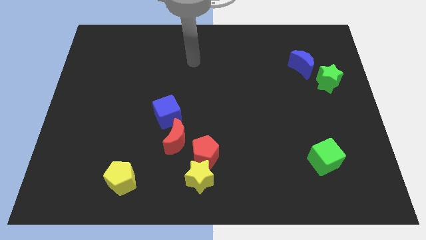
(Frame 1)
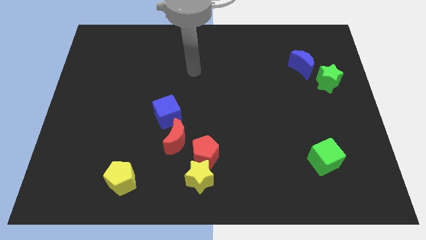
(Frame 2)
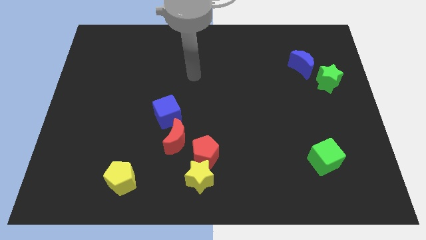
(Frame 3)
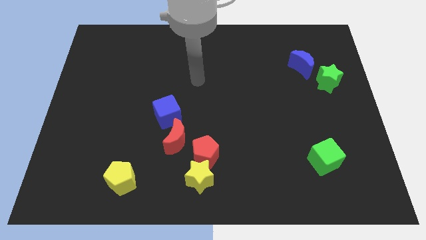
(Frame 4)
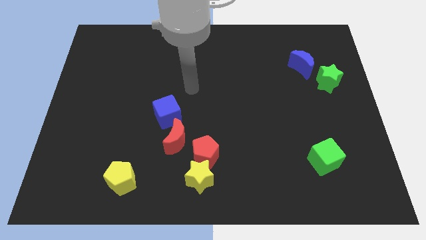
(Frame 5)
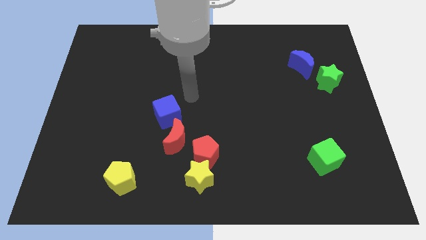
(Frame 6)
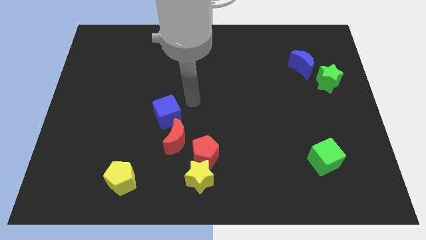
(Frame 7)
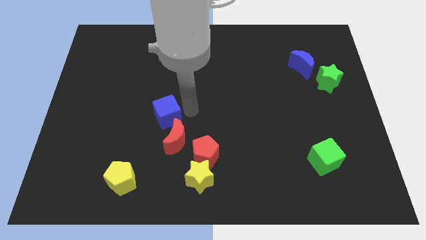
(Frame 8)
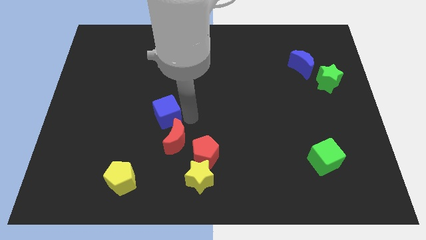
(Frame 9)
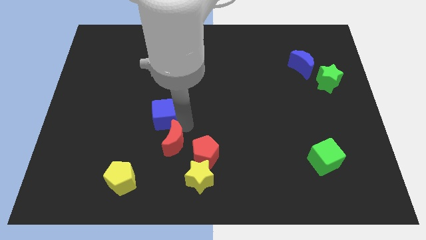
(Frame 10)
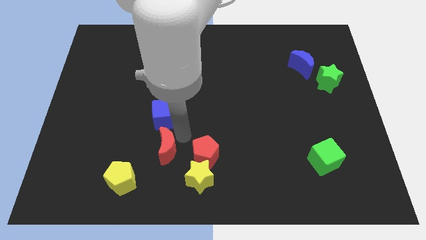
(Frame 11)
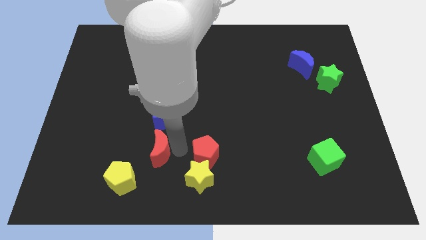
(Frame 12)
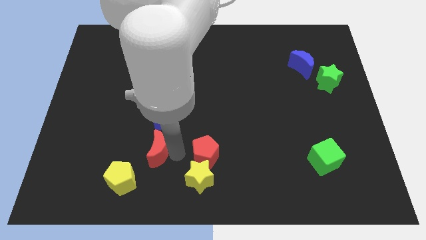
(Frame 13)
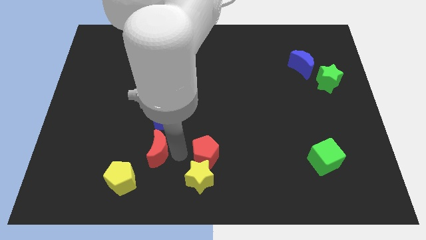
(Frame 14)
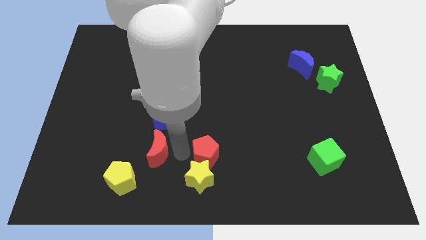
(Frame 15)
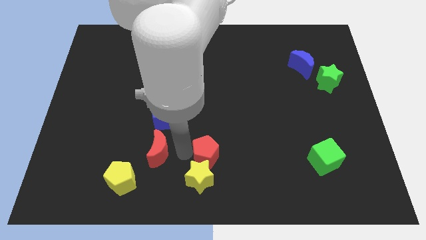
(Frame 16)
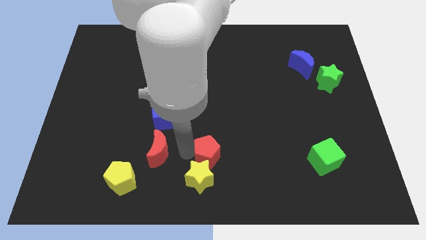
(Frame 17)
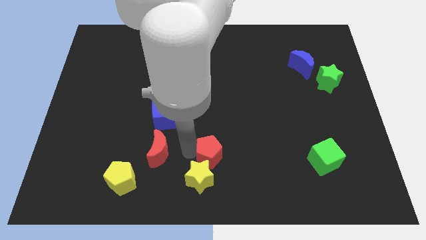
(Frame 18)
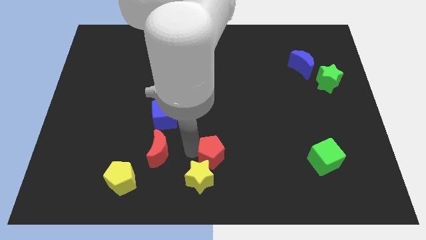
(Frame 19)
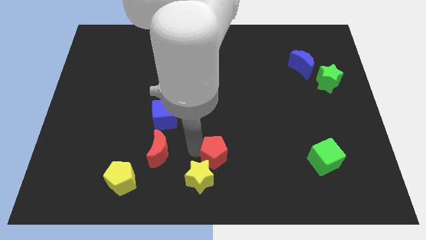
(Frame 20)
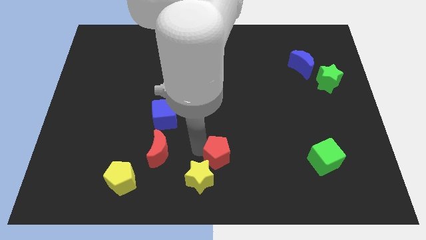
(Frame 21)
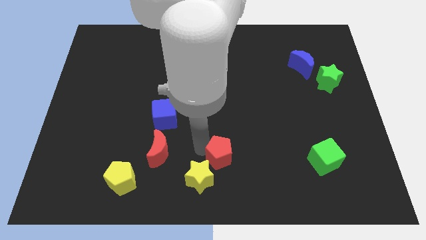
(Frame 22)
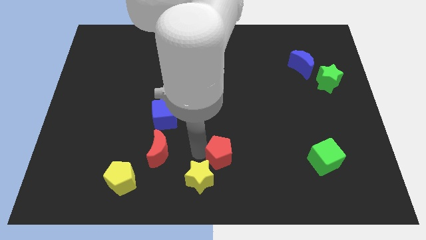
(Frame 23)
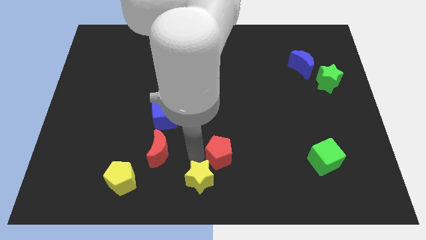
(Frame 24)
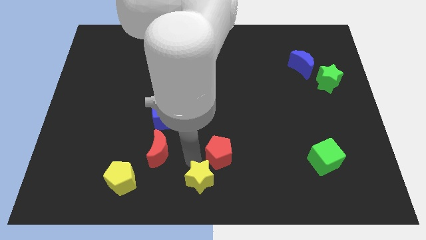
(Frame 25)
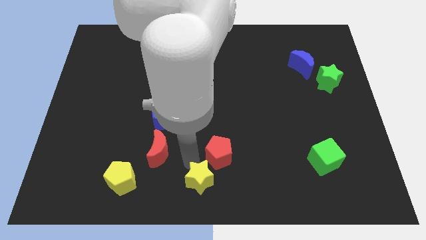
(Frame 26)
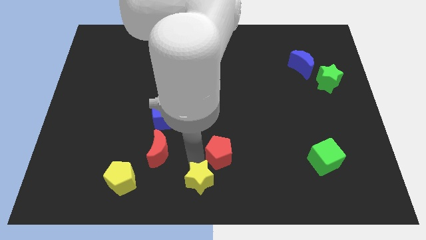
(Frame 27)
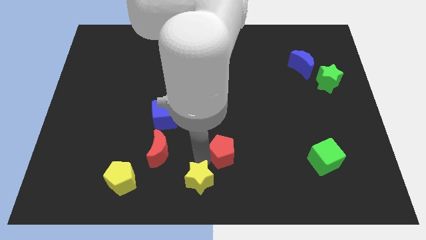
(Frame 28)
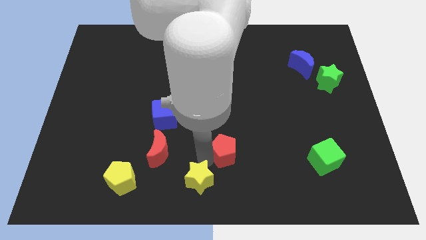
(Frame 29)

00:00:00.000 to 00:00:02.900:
pull the red pentagon apart from the yellow star and red moon

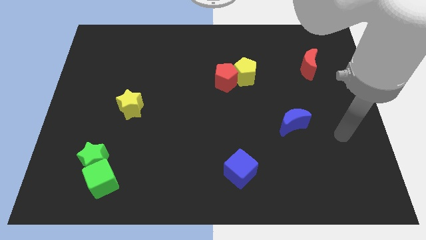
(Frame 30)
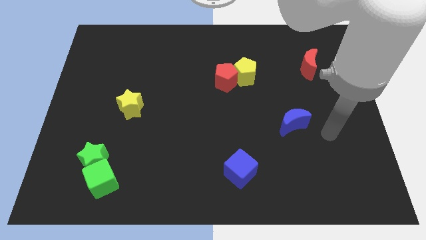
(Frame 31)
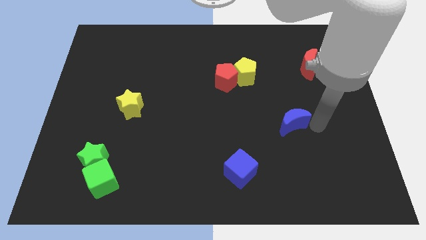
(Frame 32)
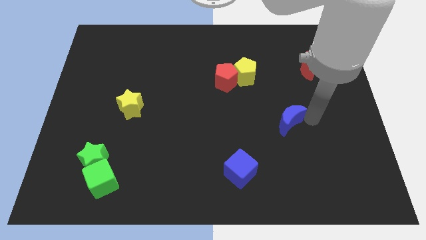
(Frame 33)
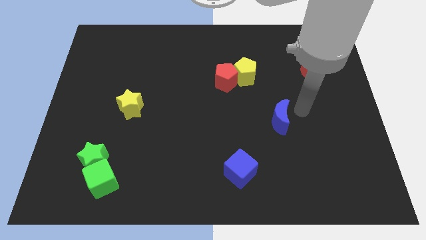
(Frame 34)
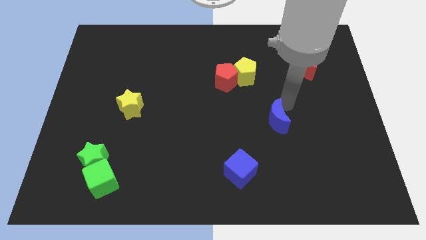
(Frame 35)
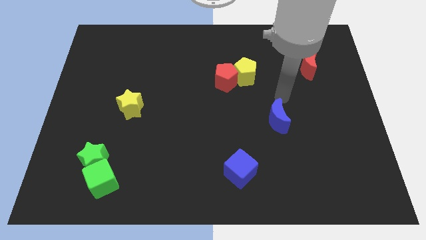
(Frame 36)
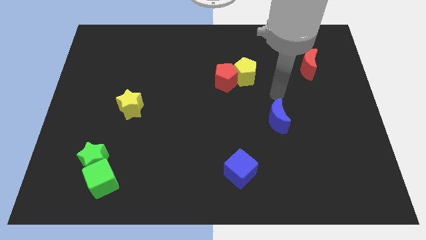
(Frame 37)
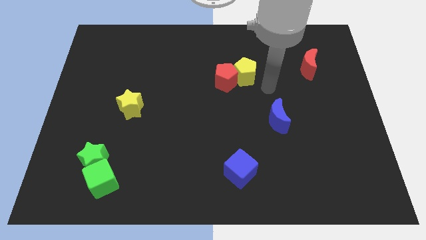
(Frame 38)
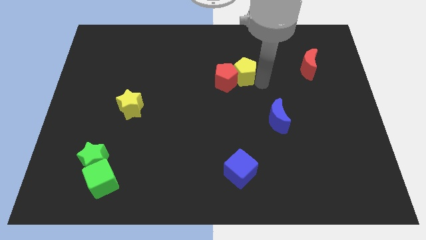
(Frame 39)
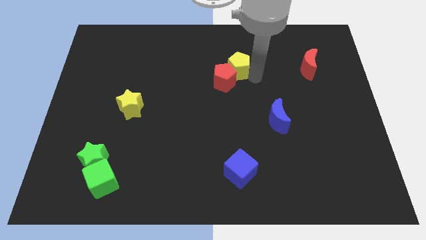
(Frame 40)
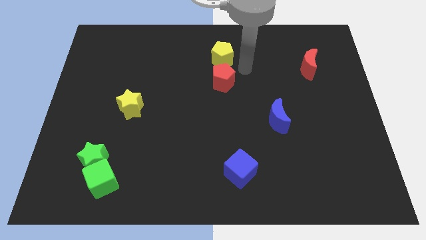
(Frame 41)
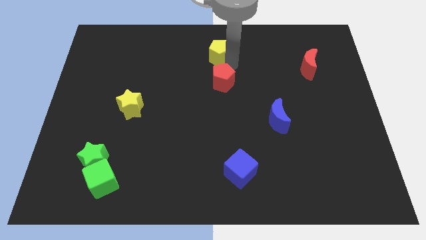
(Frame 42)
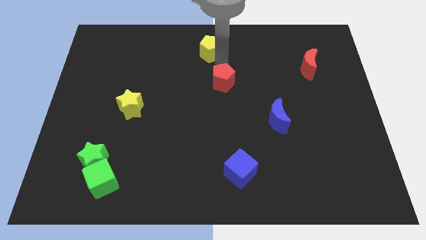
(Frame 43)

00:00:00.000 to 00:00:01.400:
separate the red pentagon from the yellow pentagon

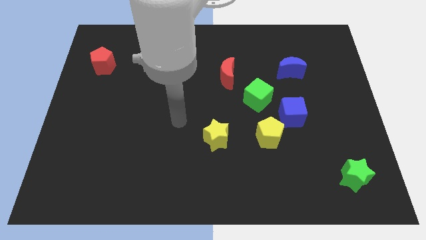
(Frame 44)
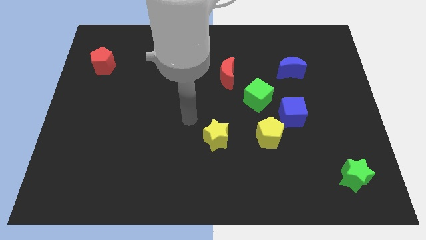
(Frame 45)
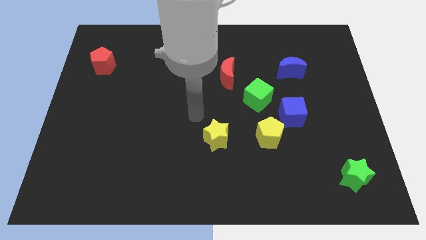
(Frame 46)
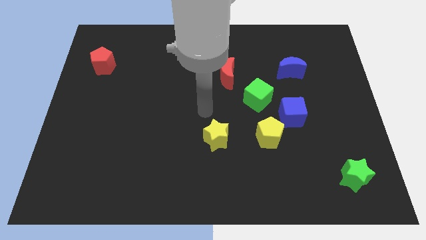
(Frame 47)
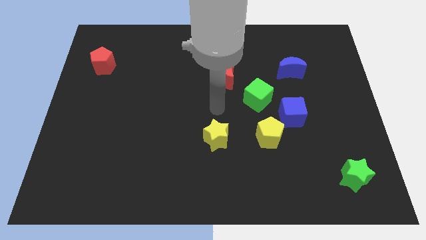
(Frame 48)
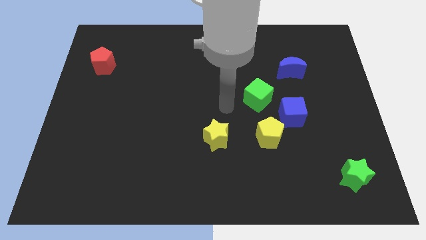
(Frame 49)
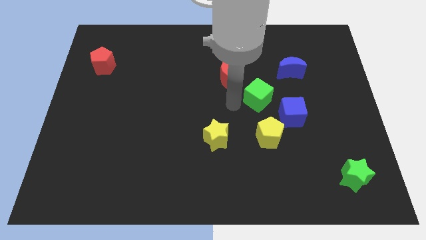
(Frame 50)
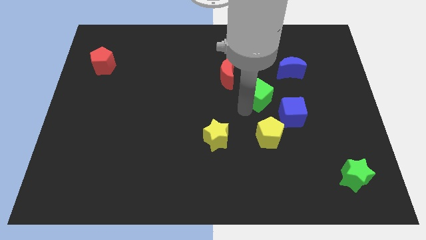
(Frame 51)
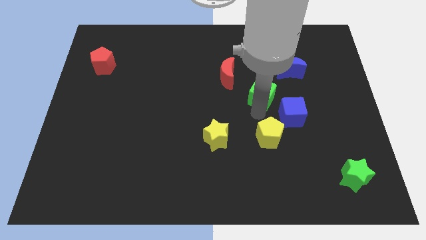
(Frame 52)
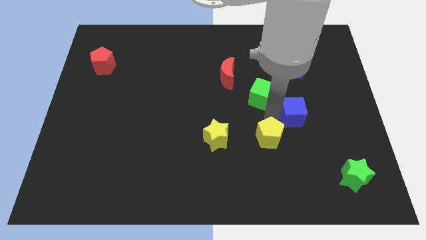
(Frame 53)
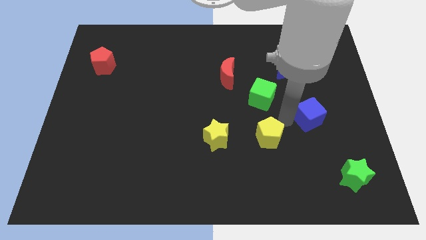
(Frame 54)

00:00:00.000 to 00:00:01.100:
separate the yellow pentagon from the blue cube

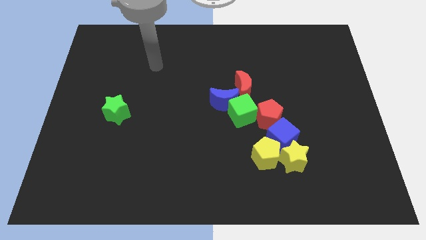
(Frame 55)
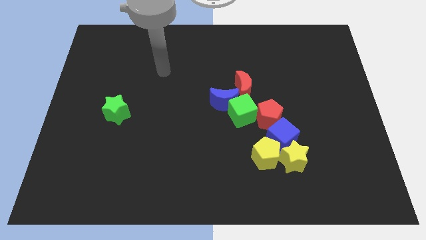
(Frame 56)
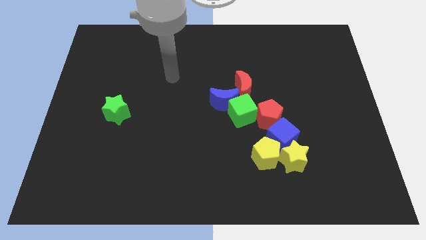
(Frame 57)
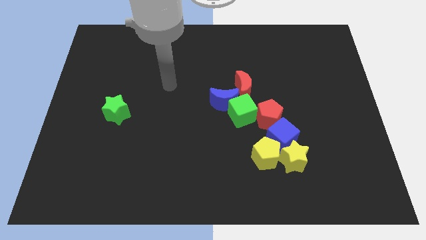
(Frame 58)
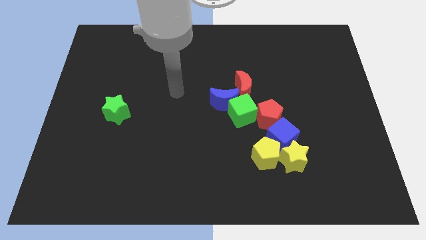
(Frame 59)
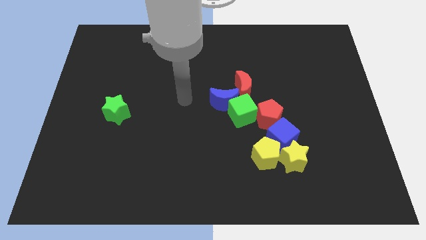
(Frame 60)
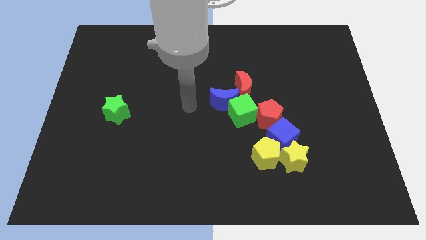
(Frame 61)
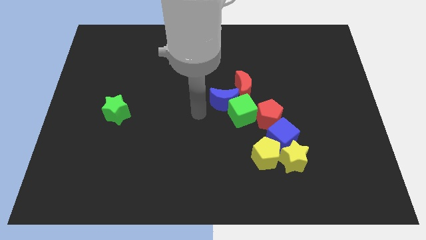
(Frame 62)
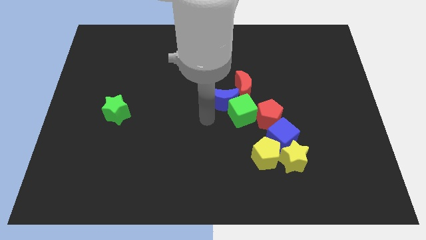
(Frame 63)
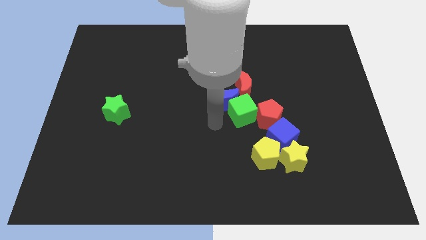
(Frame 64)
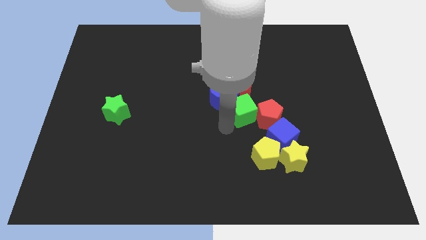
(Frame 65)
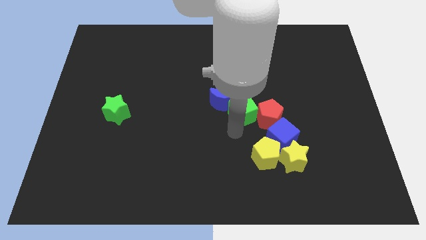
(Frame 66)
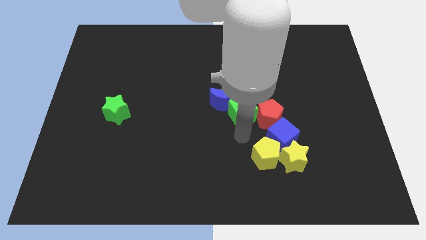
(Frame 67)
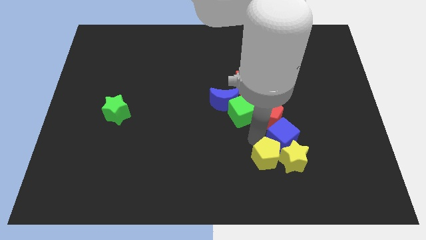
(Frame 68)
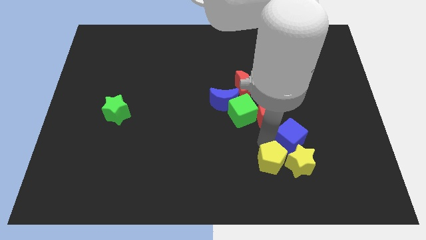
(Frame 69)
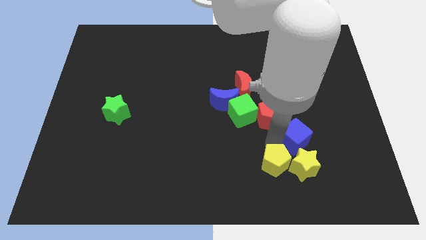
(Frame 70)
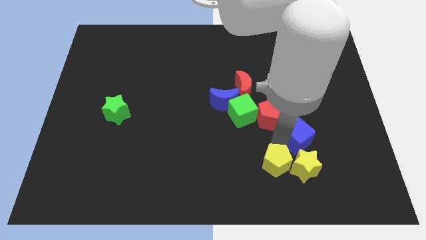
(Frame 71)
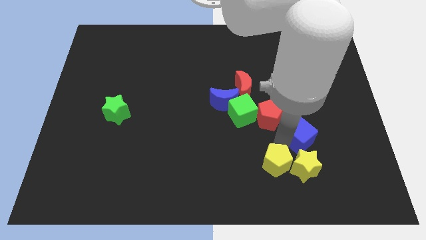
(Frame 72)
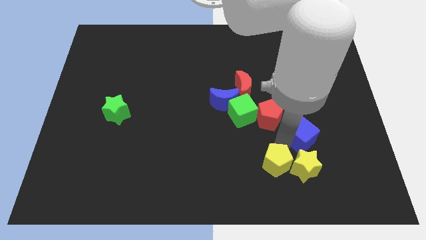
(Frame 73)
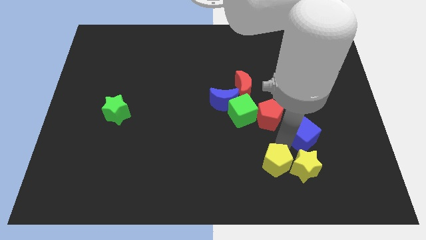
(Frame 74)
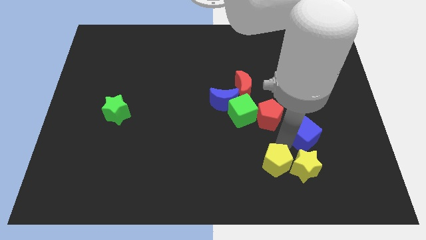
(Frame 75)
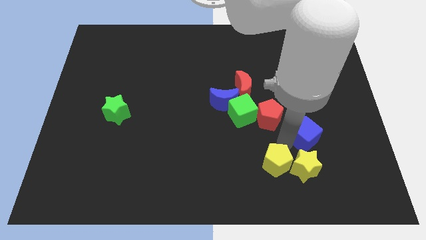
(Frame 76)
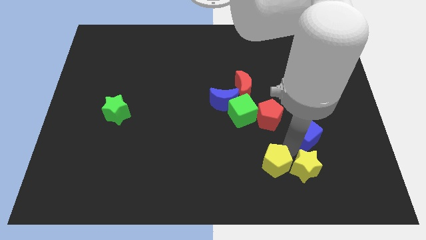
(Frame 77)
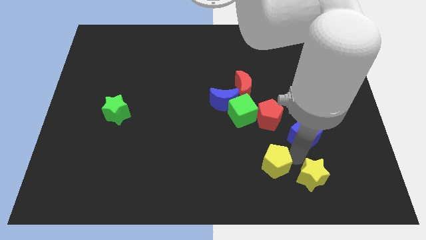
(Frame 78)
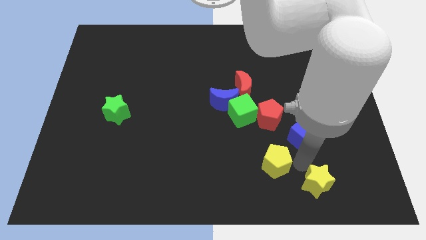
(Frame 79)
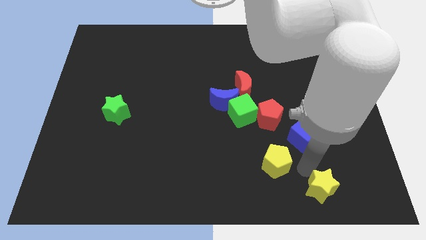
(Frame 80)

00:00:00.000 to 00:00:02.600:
move the yellow star away from the blue cube and yellow pentagon

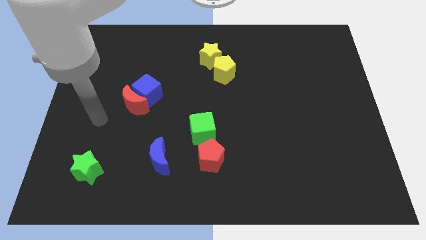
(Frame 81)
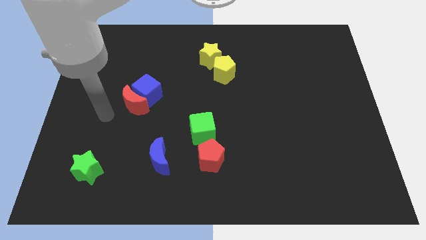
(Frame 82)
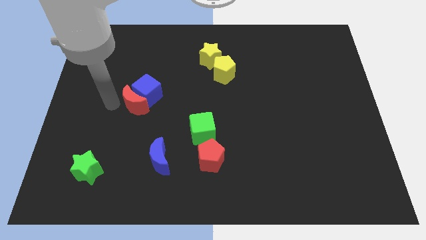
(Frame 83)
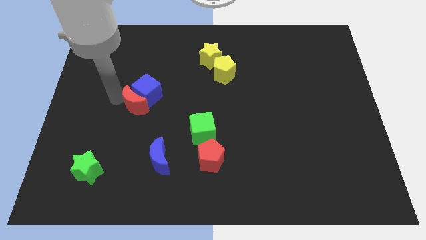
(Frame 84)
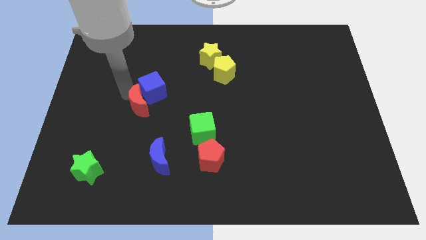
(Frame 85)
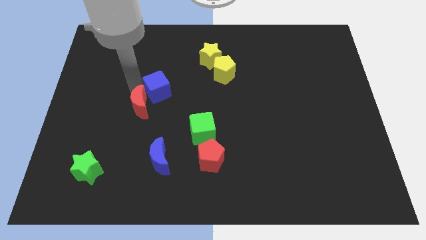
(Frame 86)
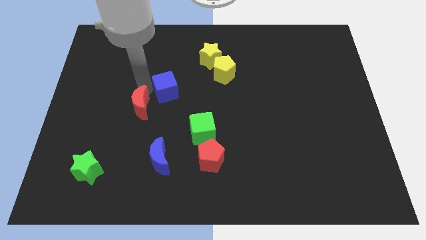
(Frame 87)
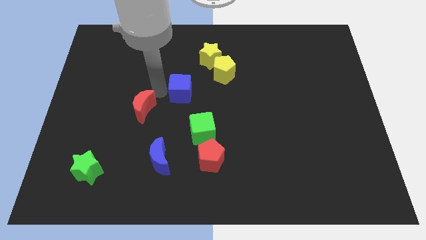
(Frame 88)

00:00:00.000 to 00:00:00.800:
move the red moon away from the blue cube

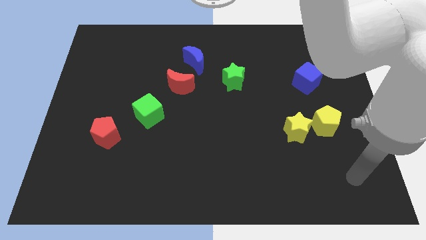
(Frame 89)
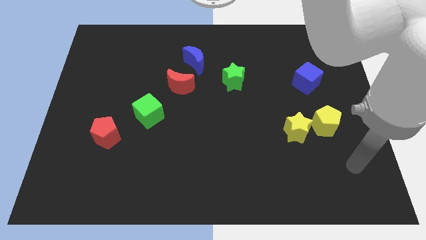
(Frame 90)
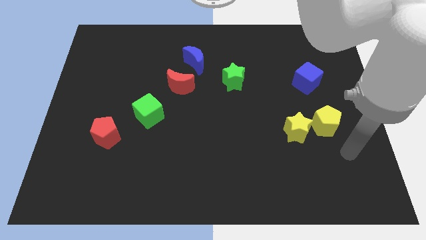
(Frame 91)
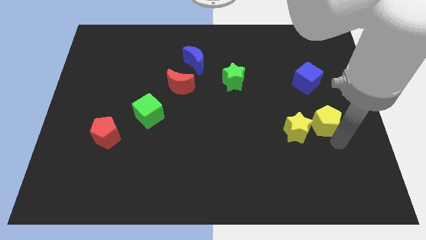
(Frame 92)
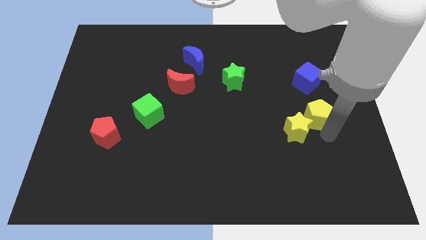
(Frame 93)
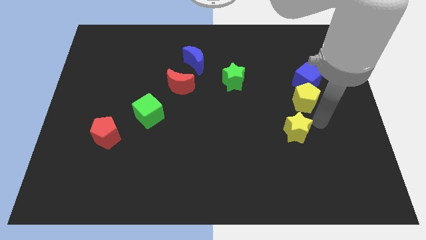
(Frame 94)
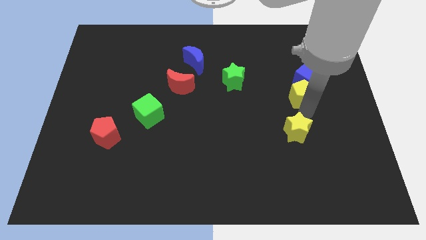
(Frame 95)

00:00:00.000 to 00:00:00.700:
pull the yellow star apart from the yellow pentagon
